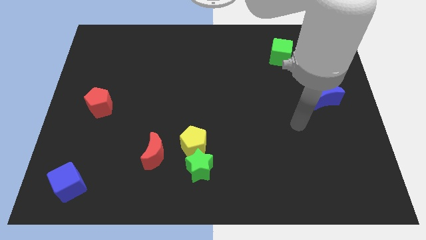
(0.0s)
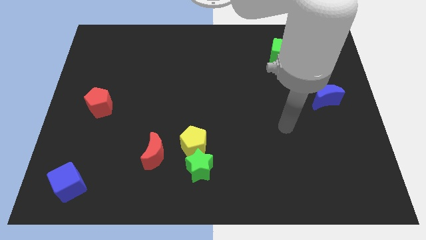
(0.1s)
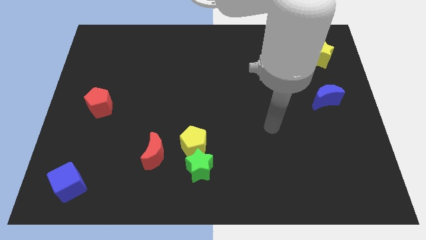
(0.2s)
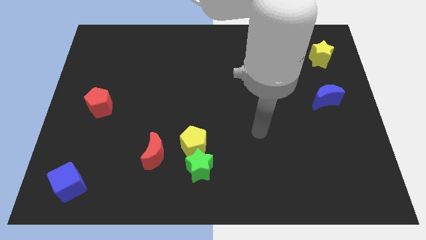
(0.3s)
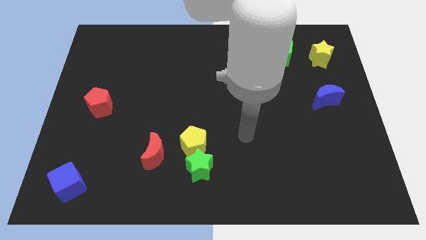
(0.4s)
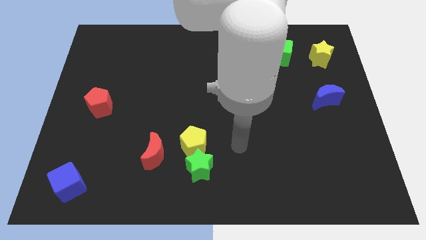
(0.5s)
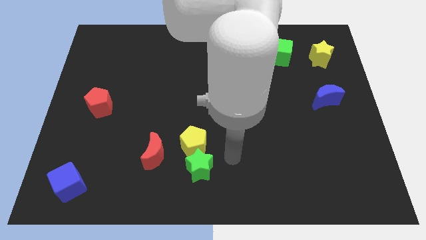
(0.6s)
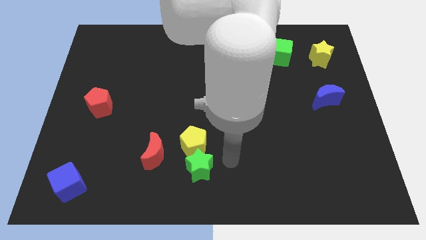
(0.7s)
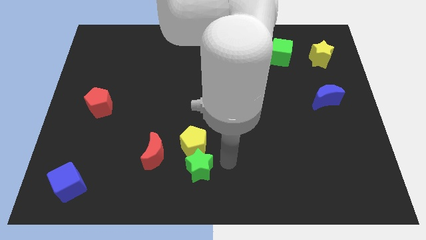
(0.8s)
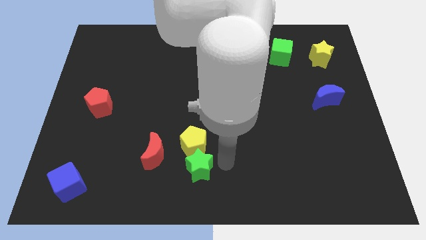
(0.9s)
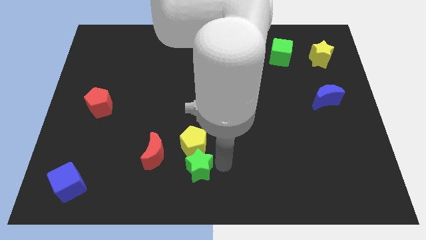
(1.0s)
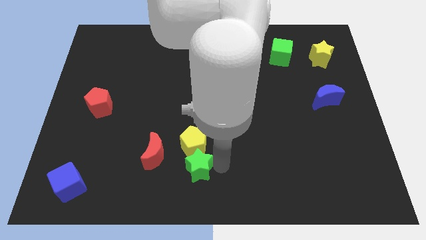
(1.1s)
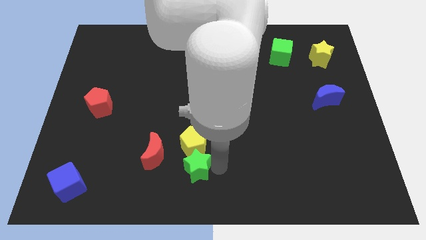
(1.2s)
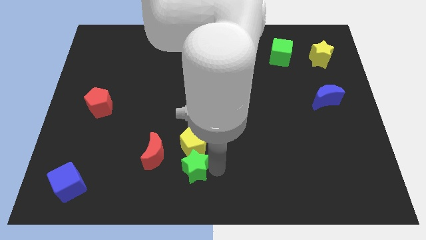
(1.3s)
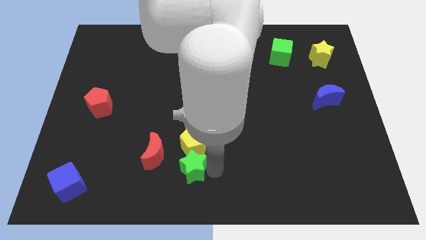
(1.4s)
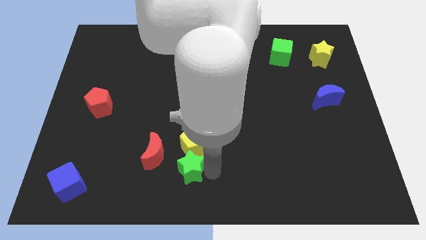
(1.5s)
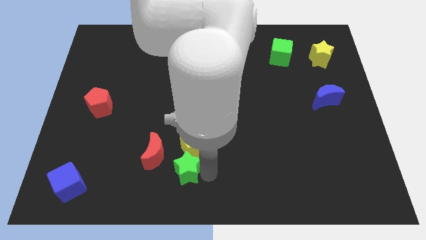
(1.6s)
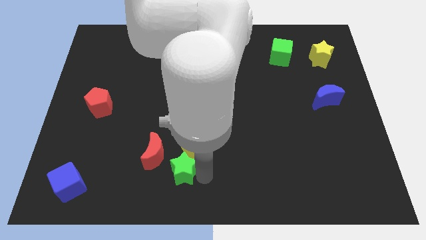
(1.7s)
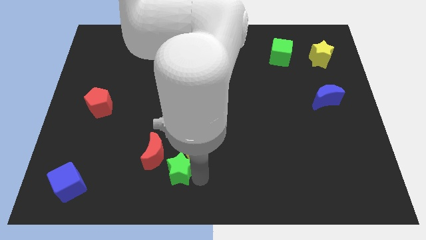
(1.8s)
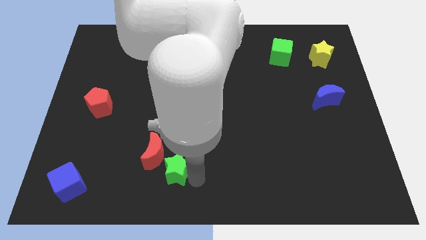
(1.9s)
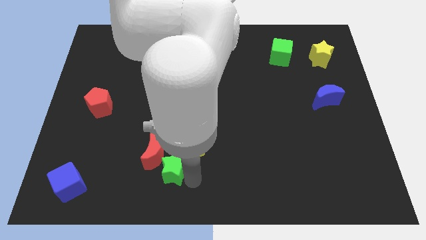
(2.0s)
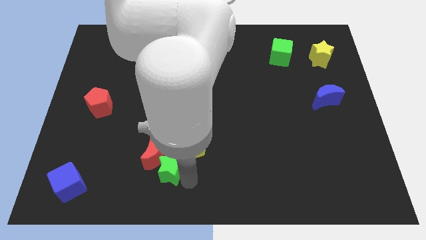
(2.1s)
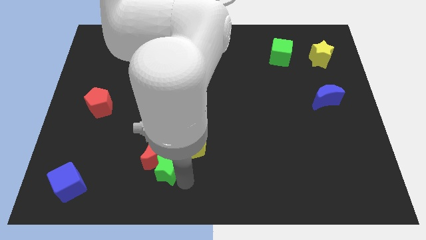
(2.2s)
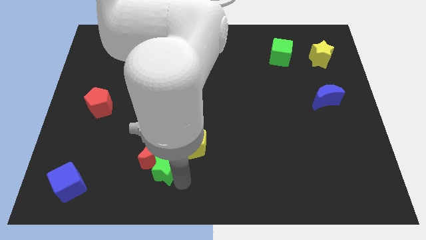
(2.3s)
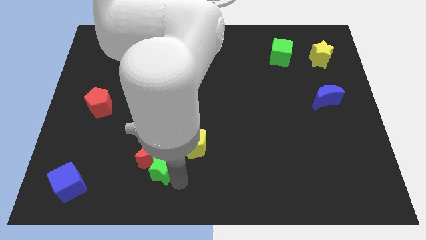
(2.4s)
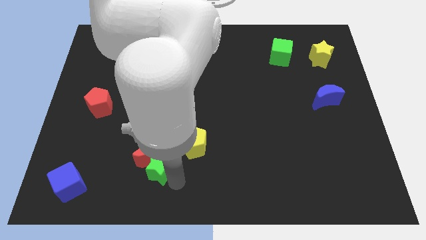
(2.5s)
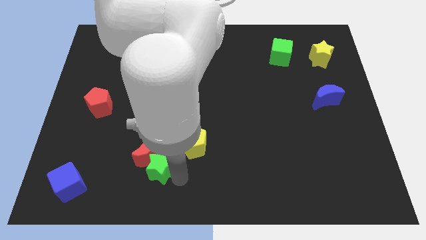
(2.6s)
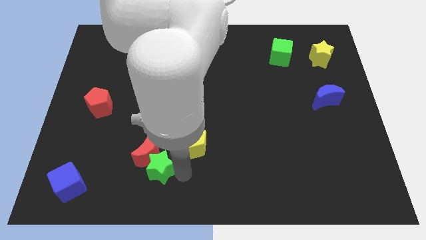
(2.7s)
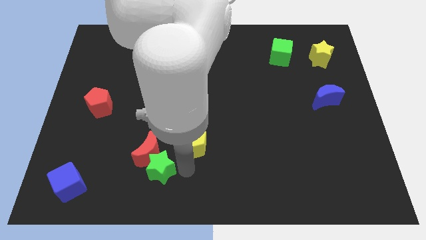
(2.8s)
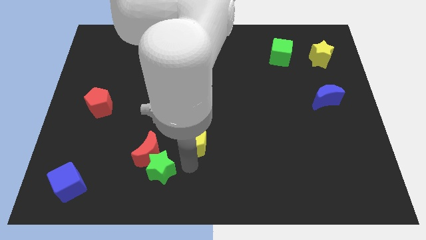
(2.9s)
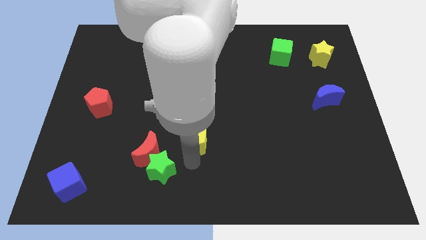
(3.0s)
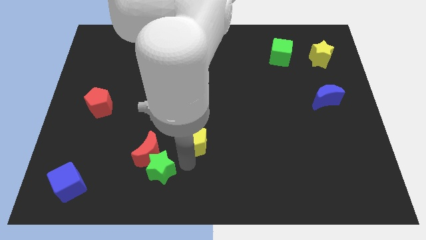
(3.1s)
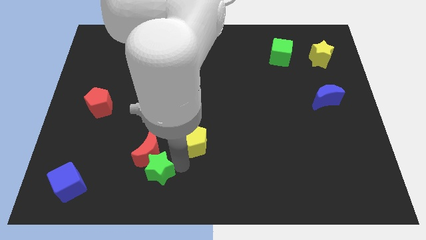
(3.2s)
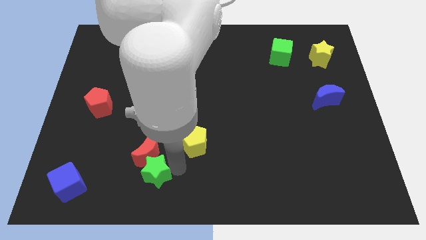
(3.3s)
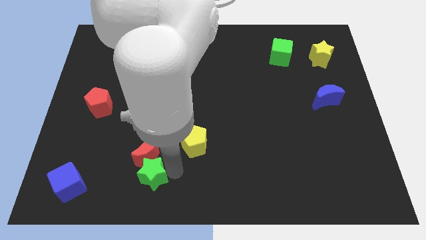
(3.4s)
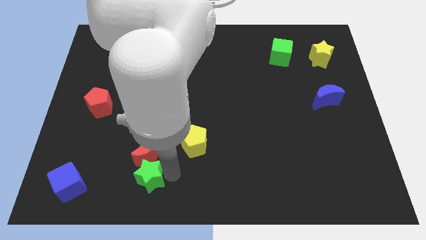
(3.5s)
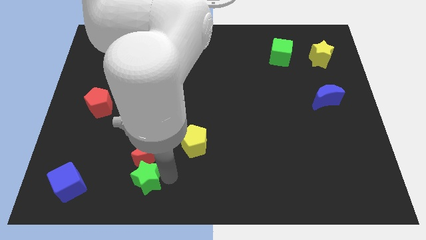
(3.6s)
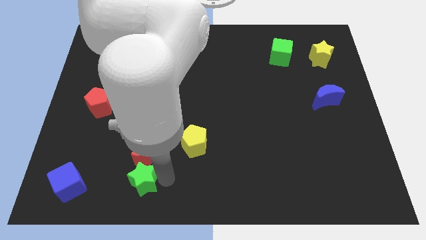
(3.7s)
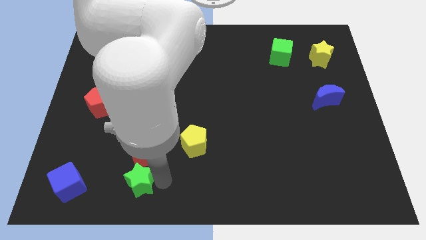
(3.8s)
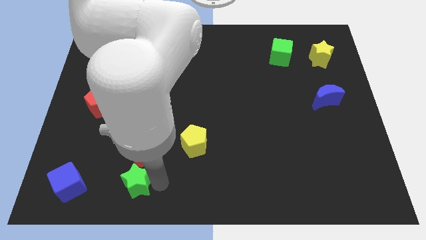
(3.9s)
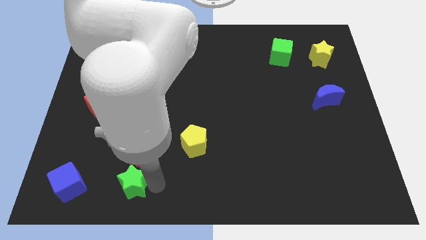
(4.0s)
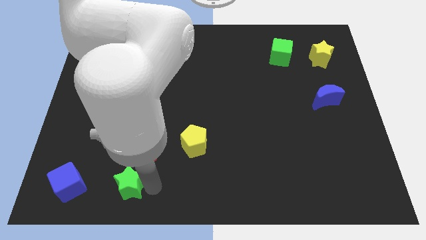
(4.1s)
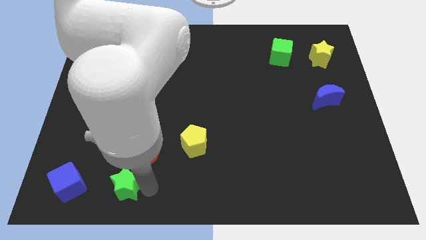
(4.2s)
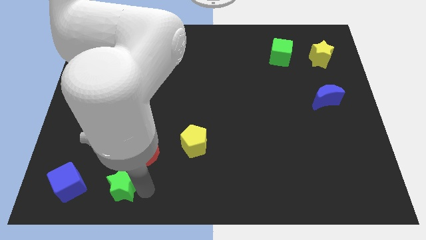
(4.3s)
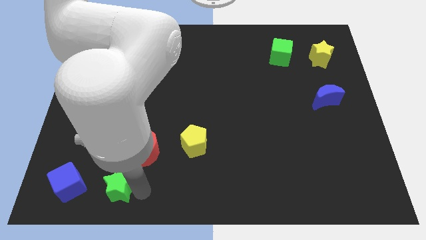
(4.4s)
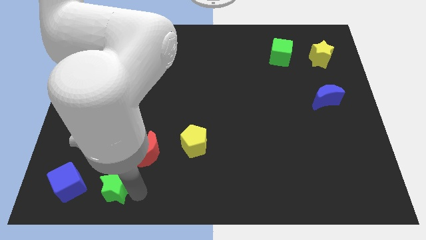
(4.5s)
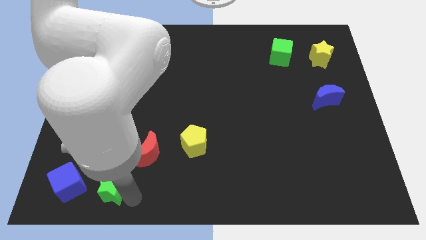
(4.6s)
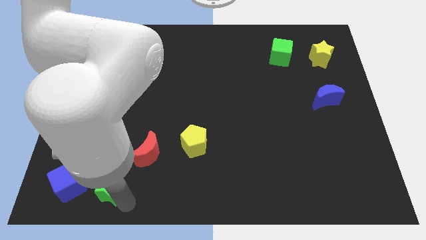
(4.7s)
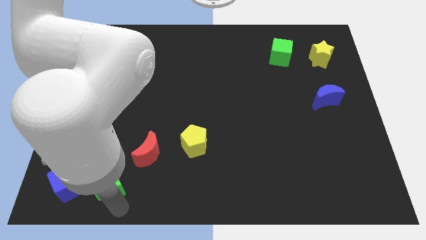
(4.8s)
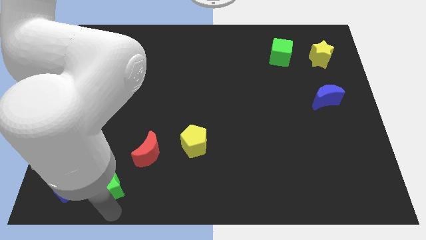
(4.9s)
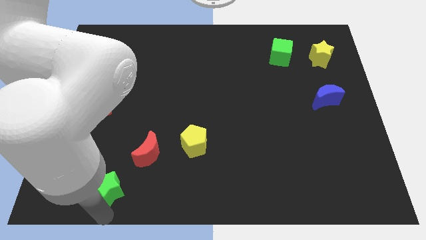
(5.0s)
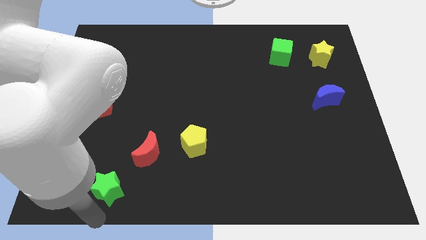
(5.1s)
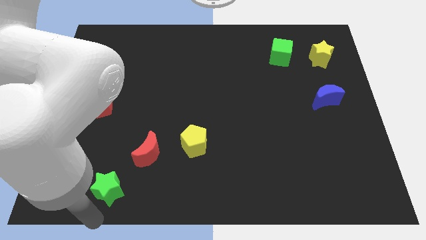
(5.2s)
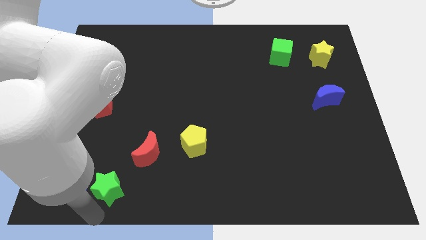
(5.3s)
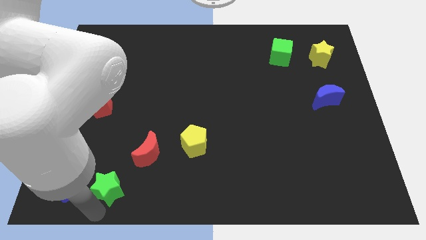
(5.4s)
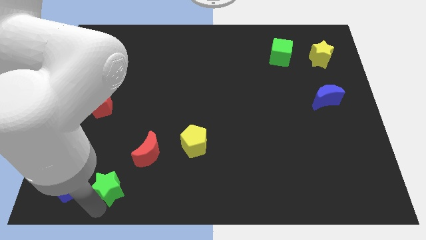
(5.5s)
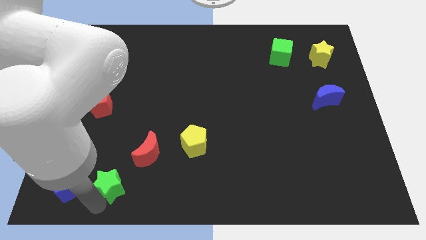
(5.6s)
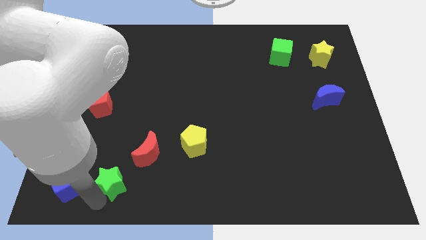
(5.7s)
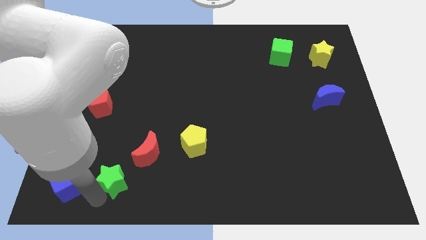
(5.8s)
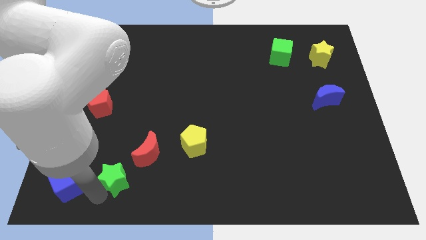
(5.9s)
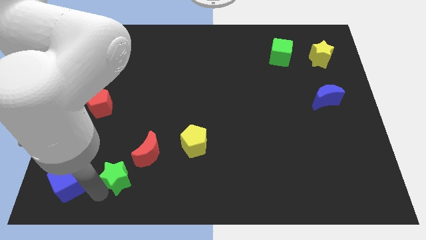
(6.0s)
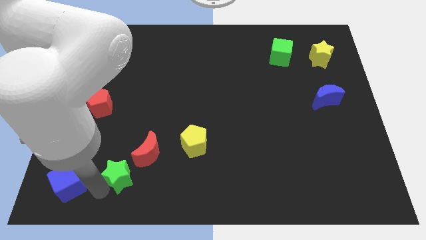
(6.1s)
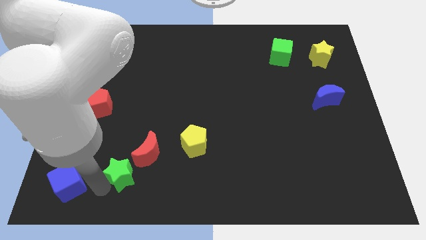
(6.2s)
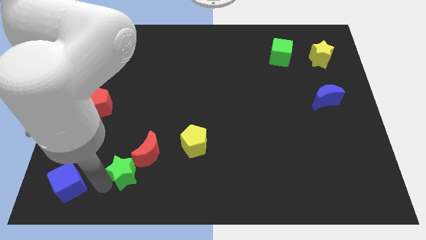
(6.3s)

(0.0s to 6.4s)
slide the green star to the left of the red moon

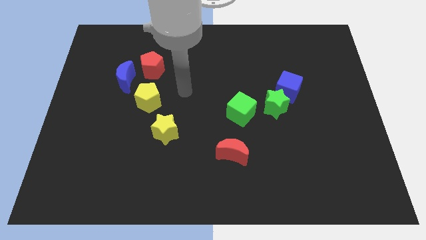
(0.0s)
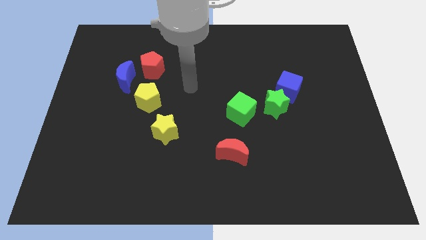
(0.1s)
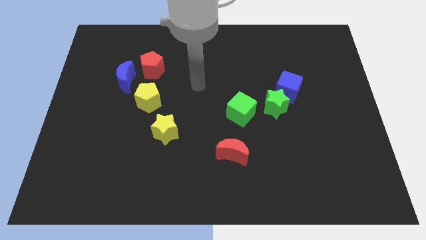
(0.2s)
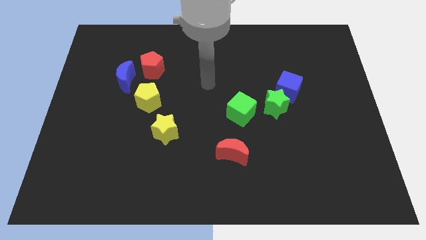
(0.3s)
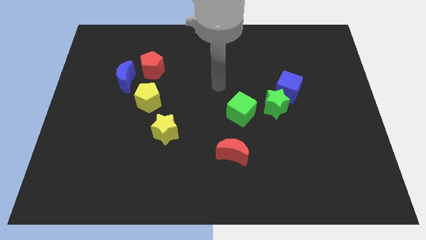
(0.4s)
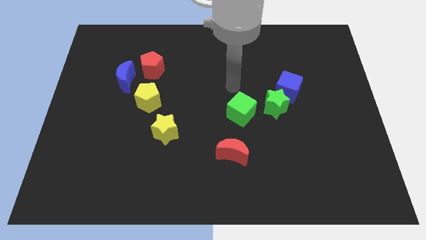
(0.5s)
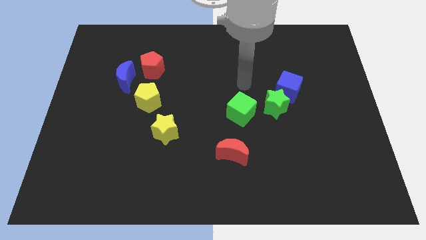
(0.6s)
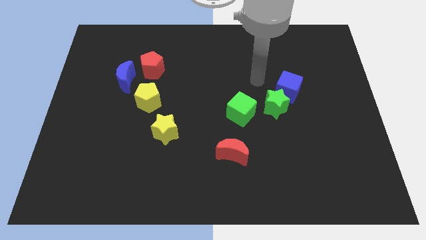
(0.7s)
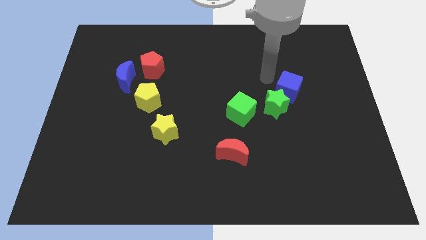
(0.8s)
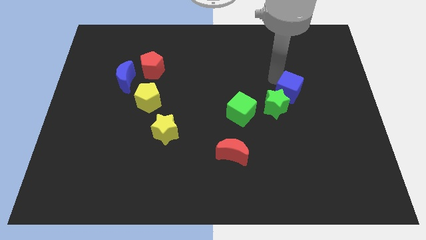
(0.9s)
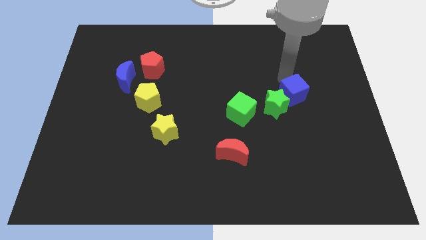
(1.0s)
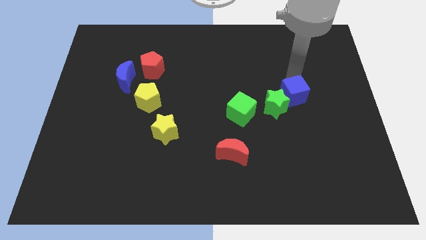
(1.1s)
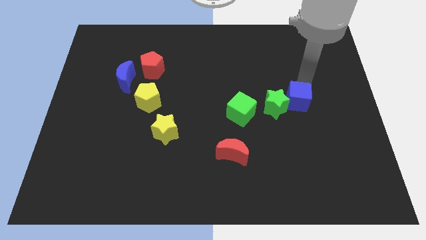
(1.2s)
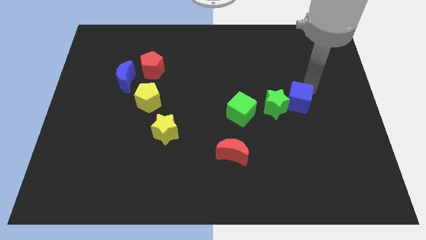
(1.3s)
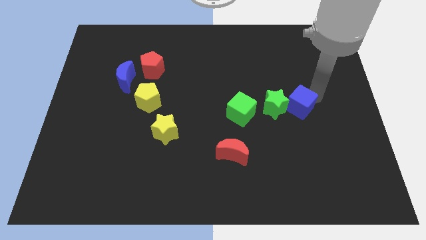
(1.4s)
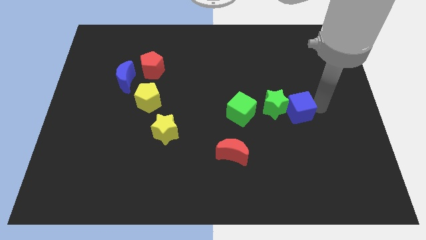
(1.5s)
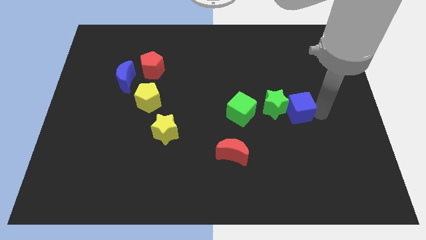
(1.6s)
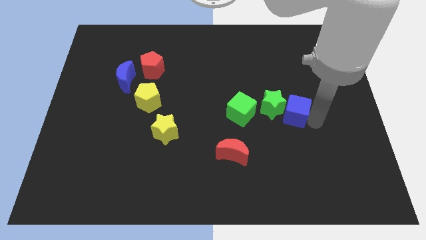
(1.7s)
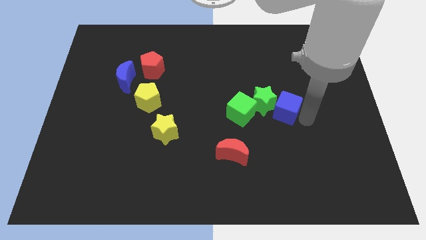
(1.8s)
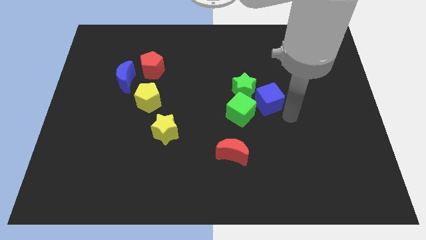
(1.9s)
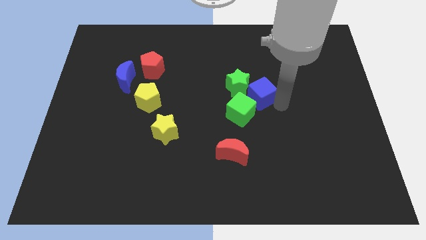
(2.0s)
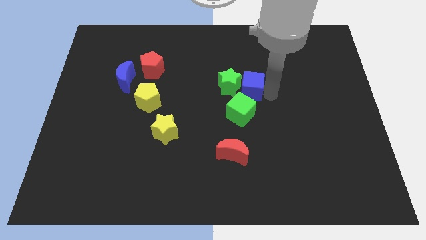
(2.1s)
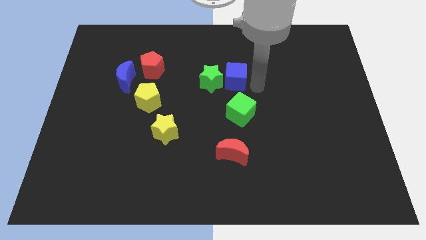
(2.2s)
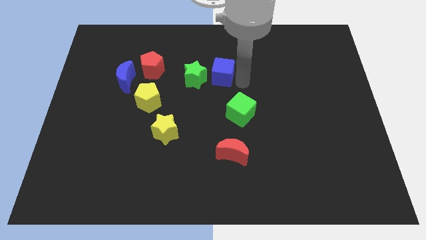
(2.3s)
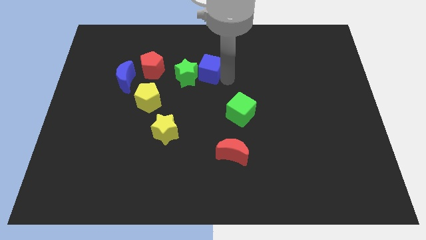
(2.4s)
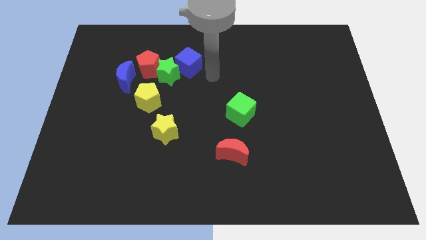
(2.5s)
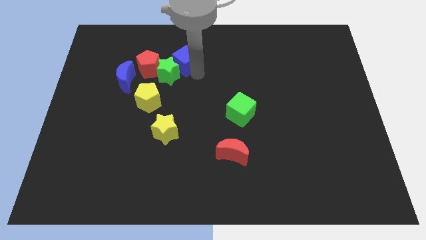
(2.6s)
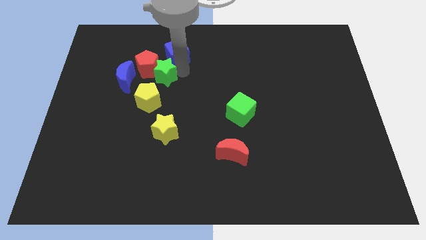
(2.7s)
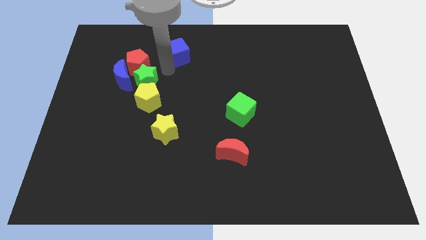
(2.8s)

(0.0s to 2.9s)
slide the green star to the bottom of the red pentagon
